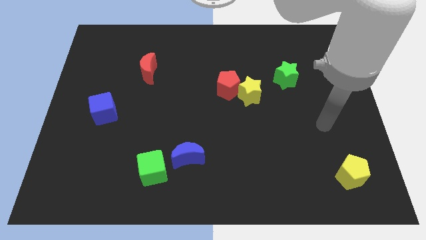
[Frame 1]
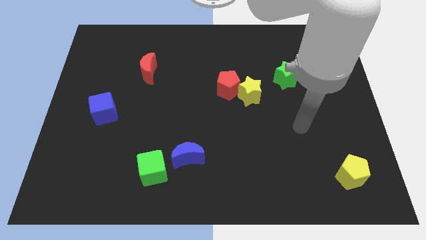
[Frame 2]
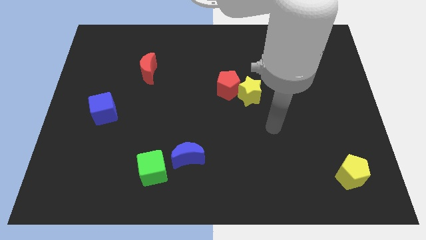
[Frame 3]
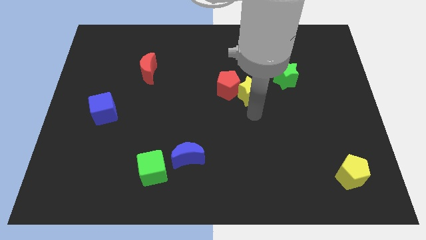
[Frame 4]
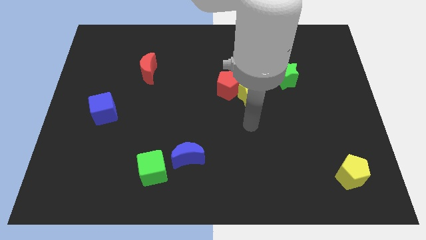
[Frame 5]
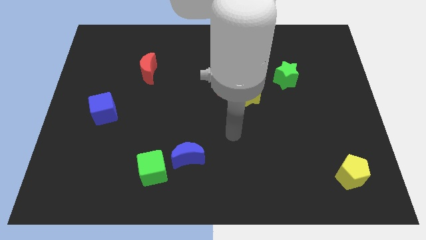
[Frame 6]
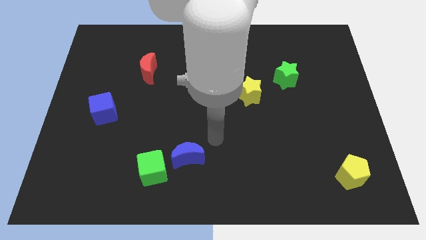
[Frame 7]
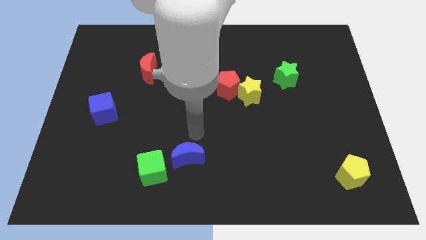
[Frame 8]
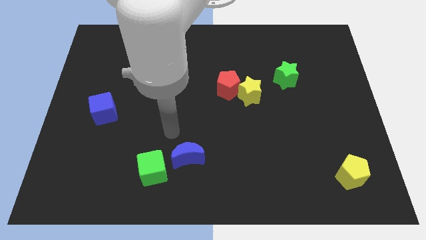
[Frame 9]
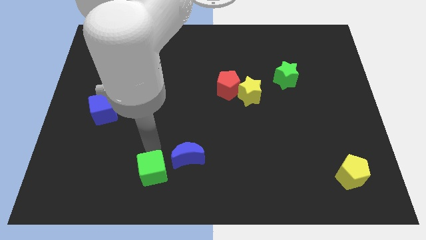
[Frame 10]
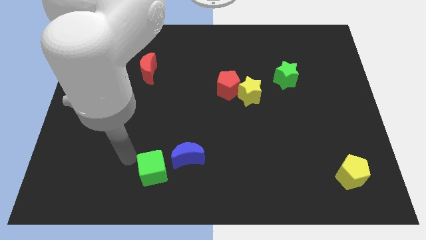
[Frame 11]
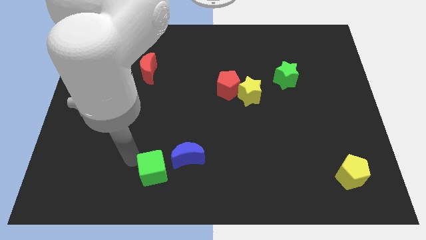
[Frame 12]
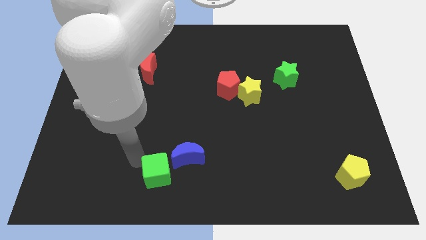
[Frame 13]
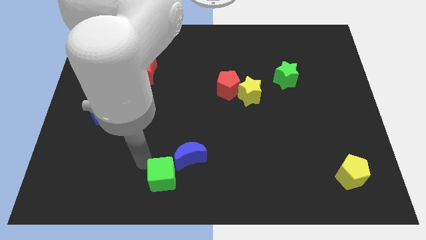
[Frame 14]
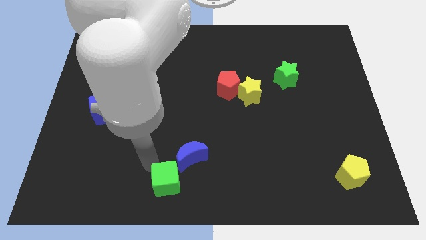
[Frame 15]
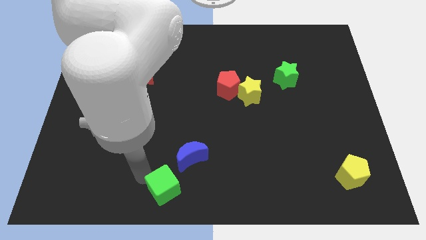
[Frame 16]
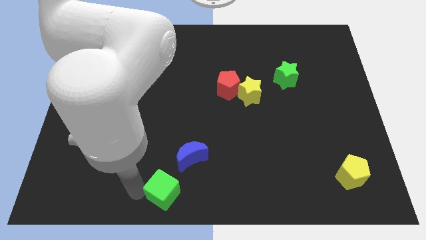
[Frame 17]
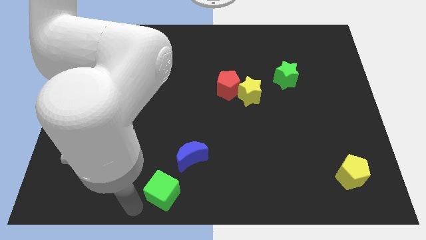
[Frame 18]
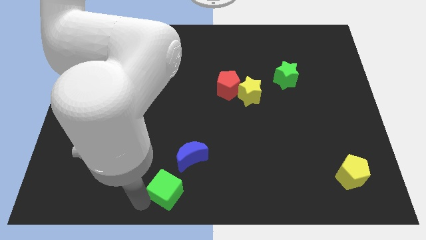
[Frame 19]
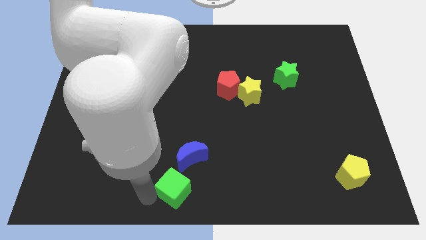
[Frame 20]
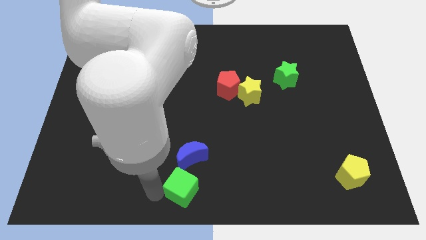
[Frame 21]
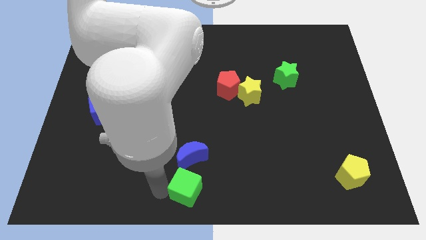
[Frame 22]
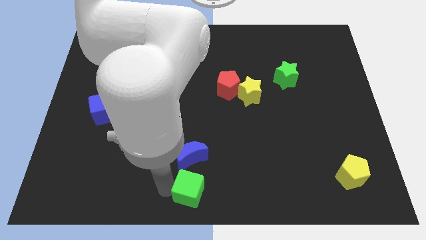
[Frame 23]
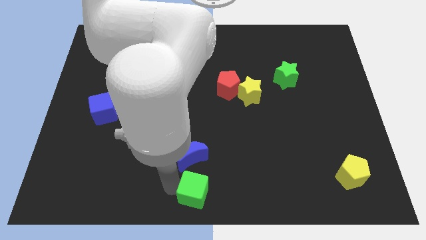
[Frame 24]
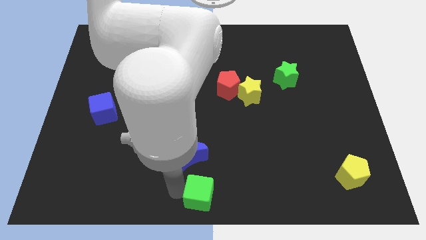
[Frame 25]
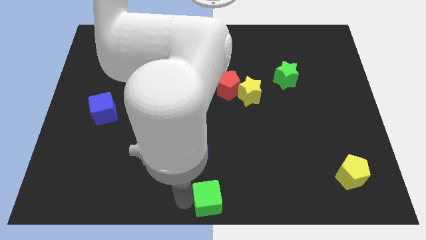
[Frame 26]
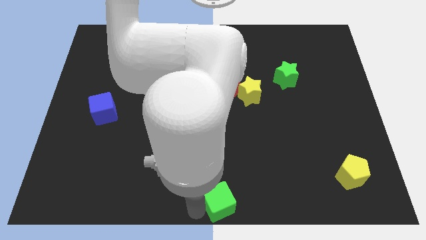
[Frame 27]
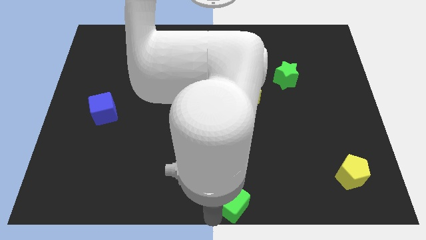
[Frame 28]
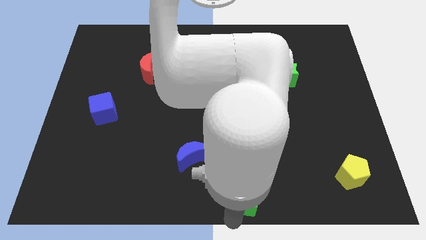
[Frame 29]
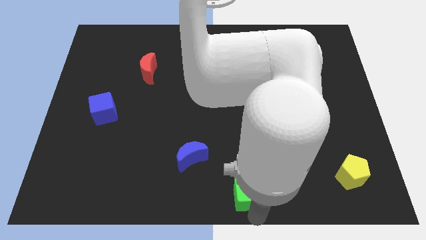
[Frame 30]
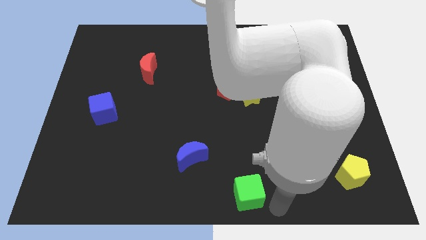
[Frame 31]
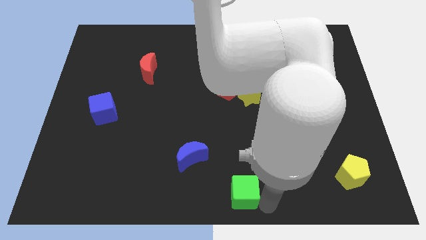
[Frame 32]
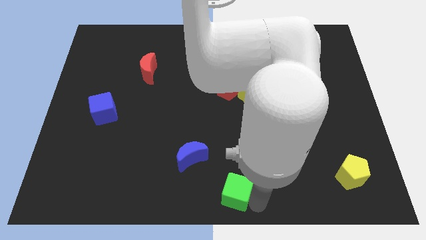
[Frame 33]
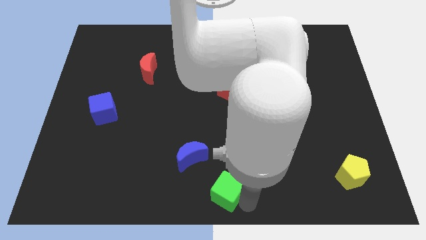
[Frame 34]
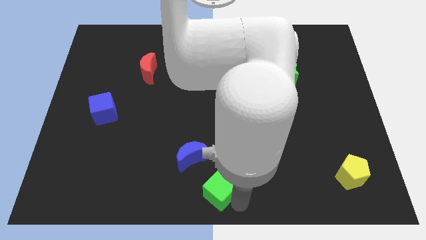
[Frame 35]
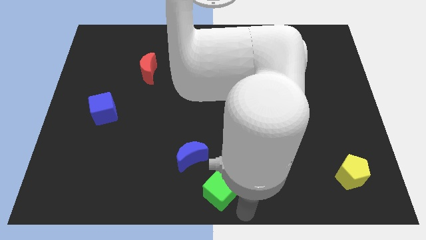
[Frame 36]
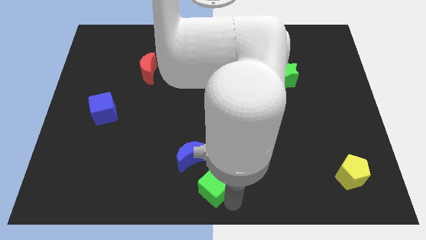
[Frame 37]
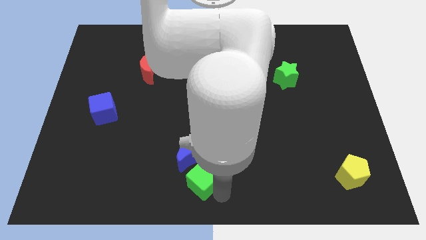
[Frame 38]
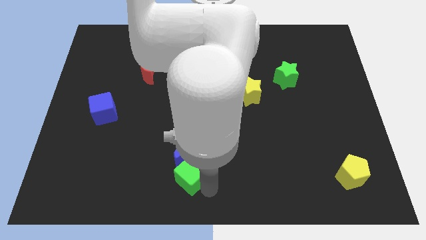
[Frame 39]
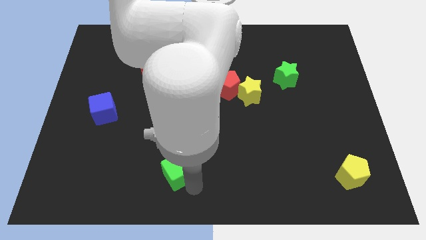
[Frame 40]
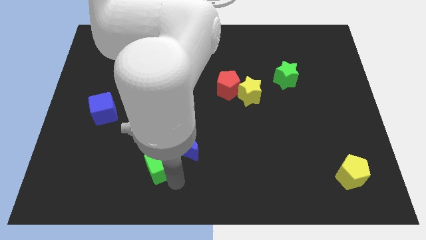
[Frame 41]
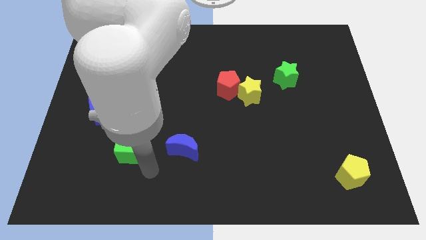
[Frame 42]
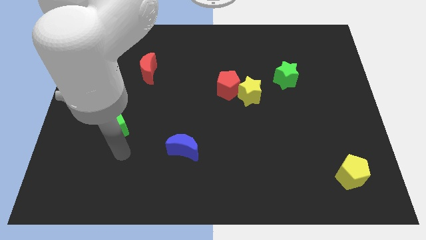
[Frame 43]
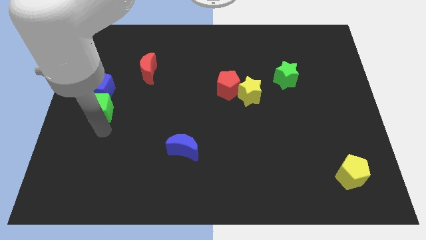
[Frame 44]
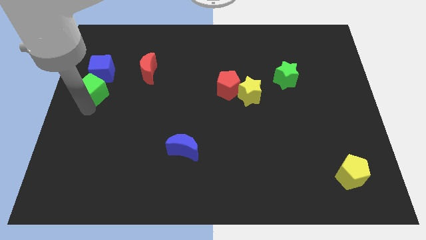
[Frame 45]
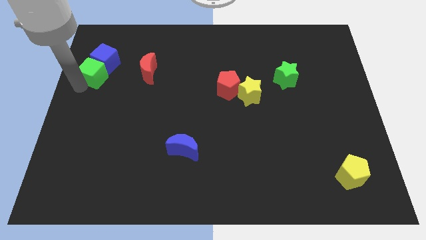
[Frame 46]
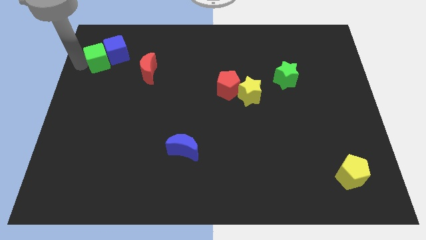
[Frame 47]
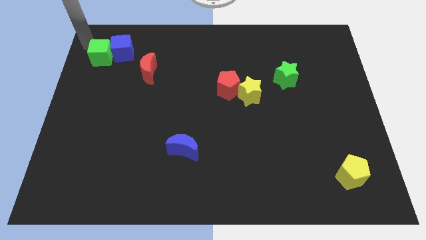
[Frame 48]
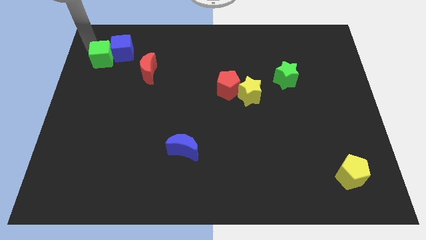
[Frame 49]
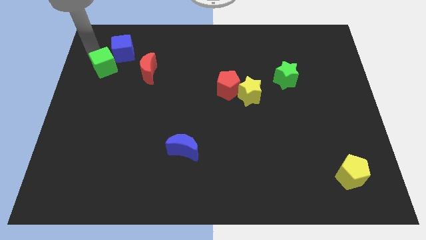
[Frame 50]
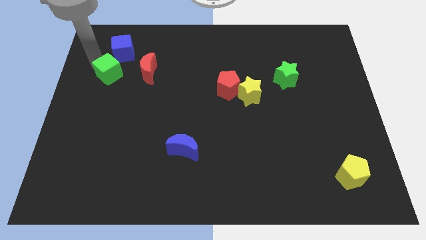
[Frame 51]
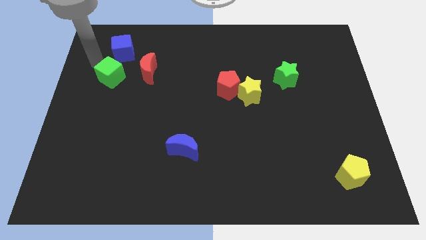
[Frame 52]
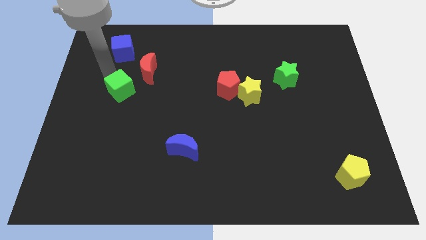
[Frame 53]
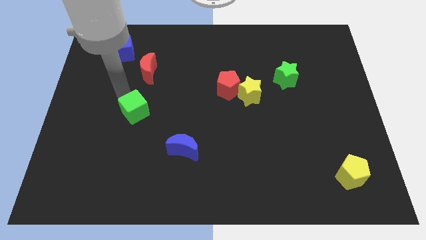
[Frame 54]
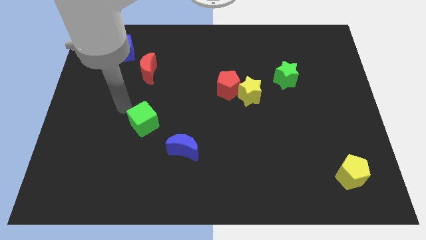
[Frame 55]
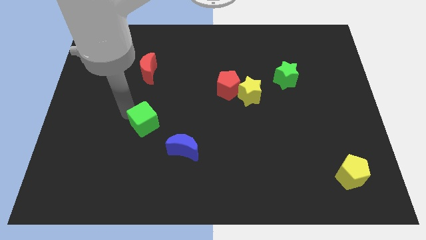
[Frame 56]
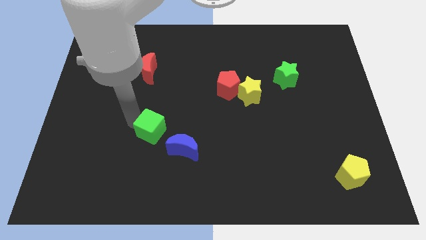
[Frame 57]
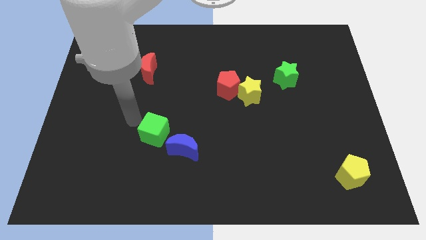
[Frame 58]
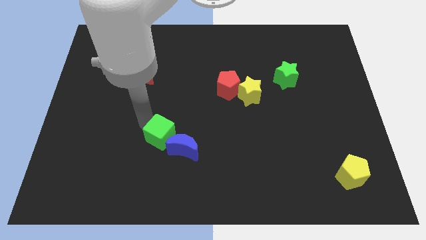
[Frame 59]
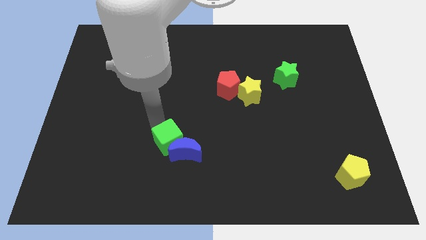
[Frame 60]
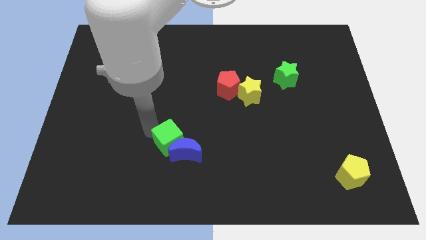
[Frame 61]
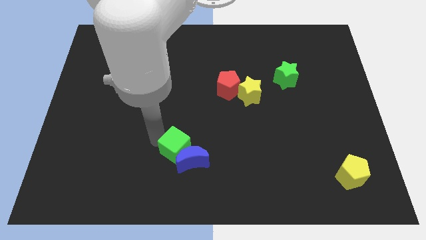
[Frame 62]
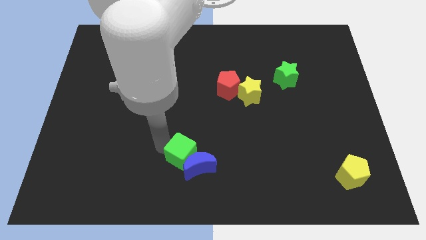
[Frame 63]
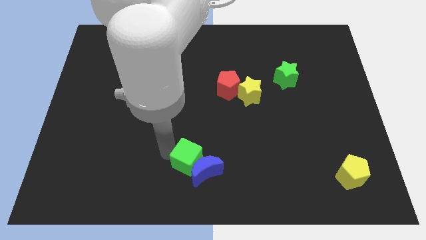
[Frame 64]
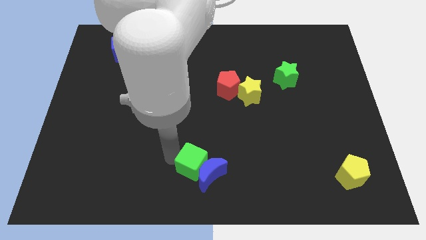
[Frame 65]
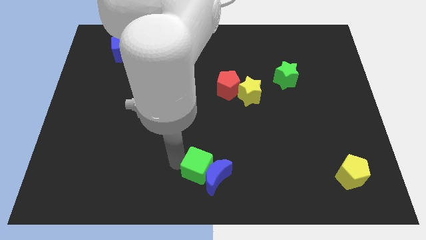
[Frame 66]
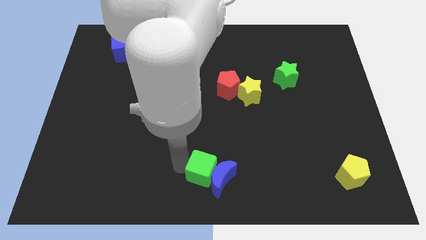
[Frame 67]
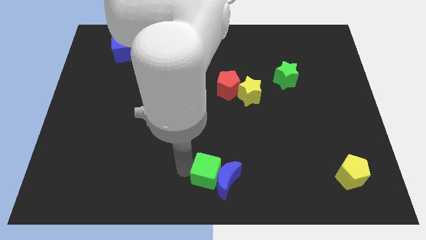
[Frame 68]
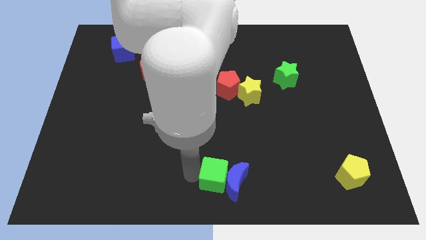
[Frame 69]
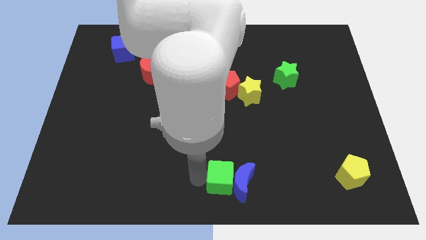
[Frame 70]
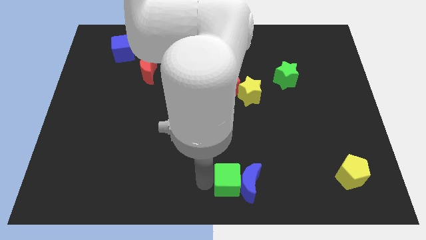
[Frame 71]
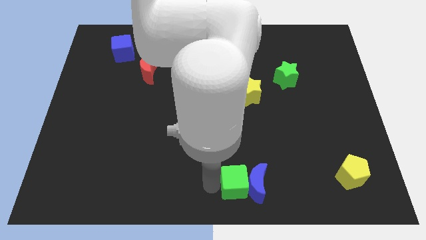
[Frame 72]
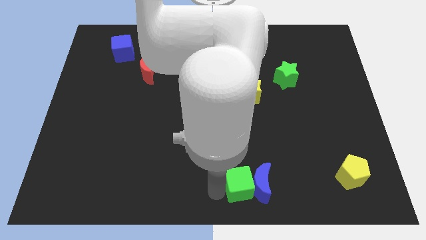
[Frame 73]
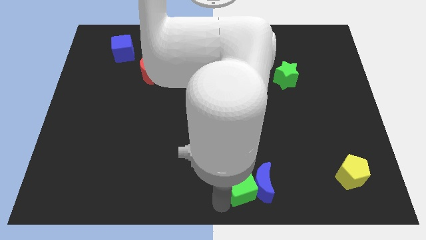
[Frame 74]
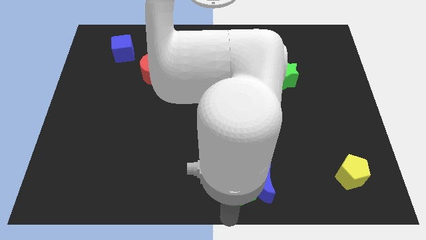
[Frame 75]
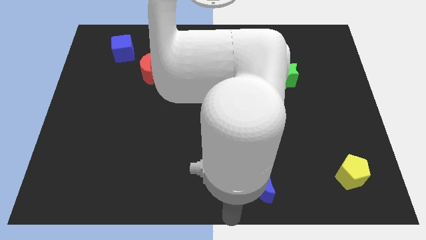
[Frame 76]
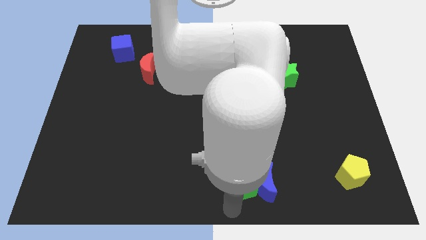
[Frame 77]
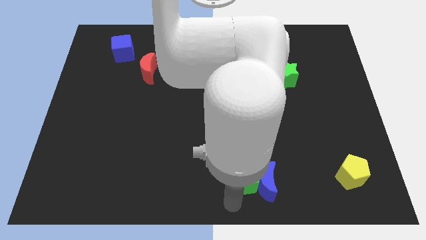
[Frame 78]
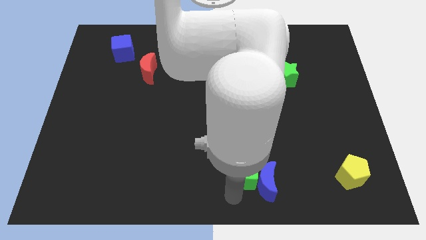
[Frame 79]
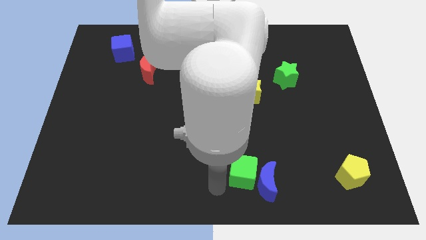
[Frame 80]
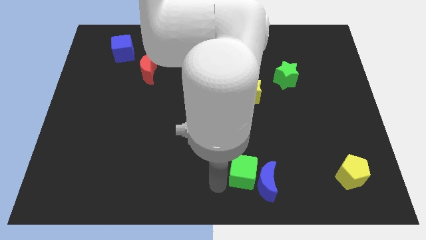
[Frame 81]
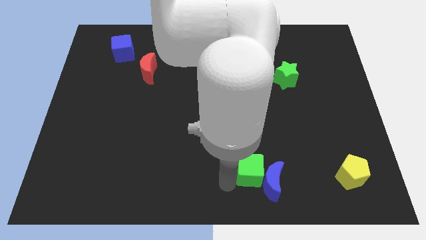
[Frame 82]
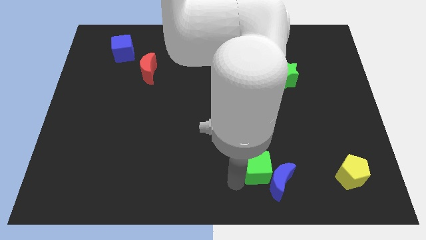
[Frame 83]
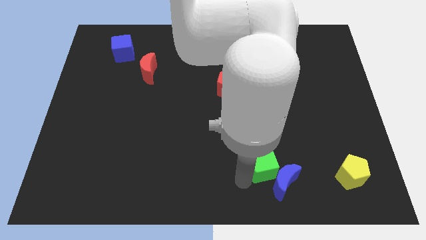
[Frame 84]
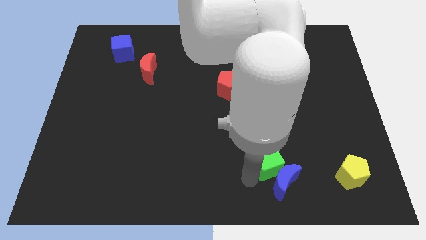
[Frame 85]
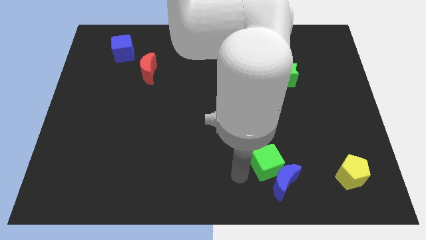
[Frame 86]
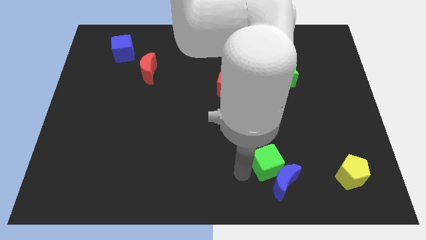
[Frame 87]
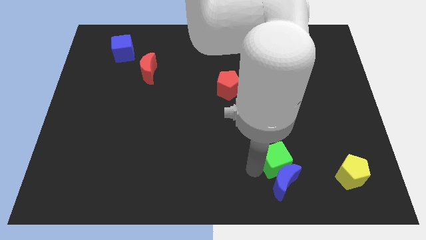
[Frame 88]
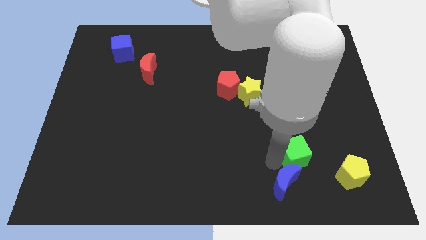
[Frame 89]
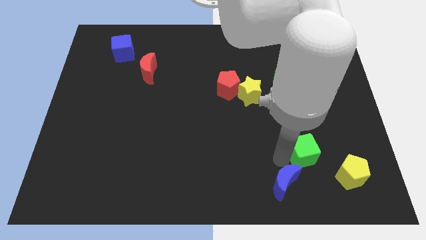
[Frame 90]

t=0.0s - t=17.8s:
put the green cube diagonally up and to the left of the yellow pentagon
